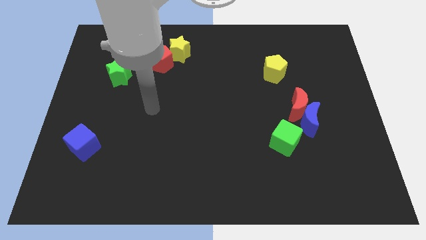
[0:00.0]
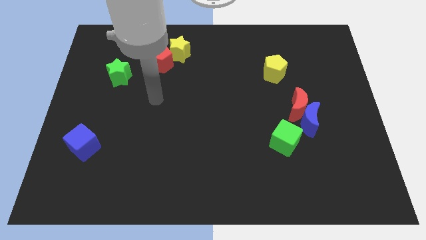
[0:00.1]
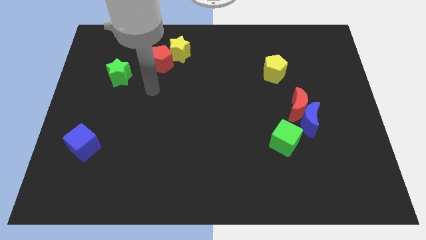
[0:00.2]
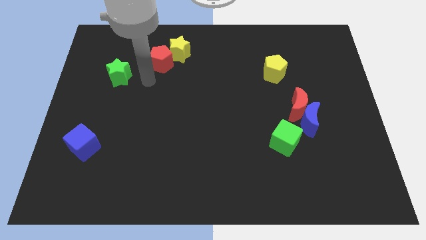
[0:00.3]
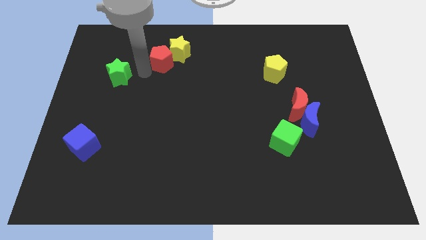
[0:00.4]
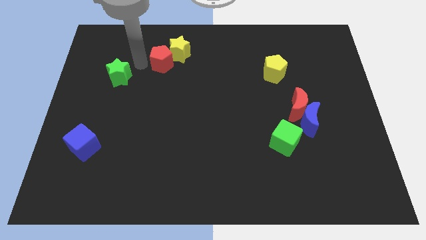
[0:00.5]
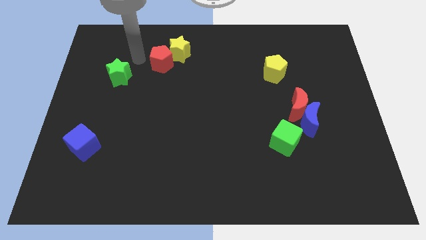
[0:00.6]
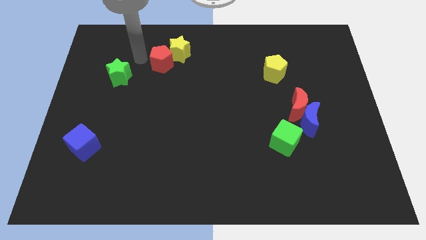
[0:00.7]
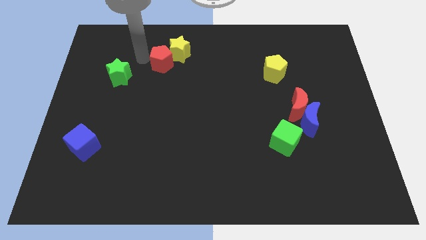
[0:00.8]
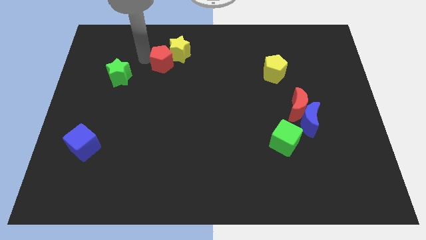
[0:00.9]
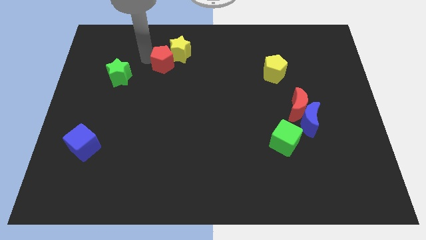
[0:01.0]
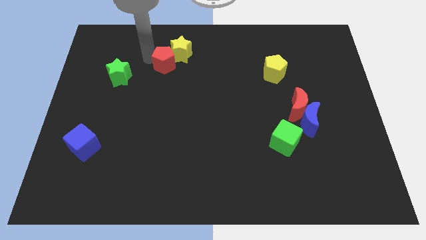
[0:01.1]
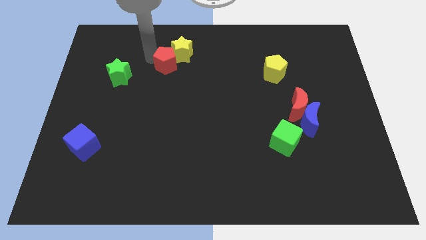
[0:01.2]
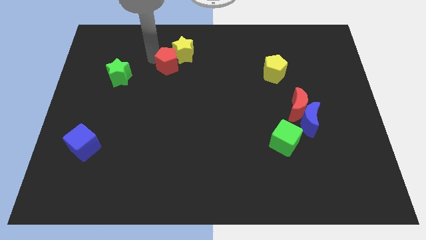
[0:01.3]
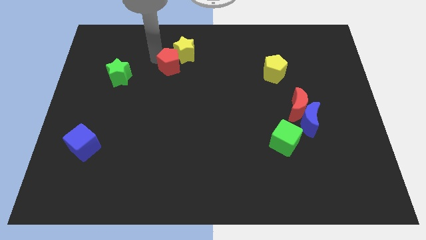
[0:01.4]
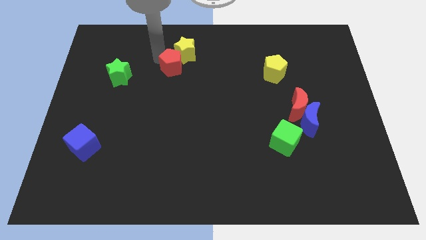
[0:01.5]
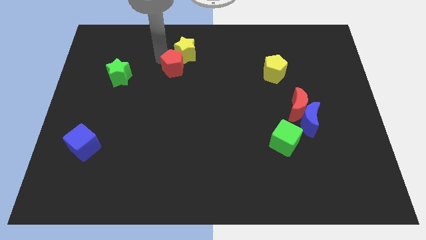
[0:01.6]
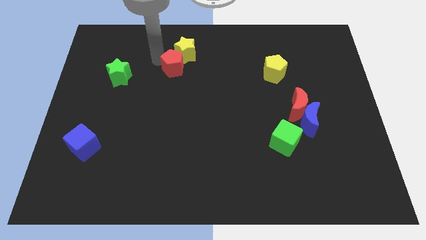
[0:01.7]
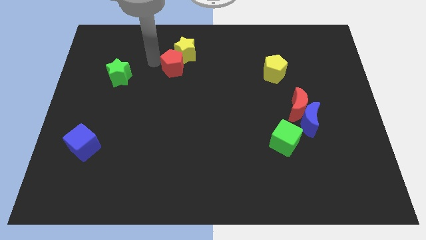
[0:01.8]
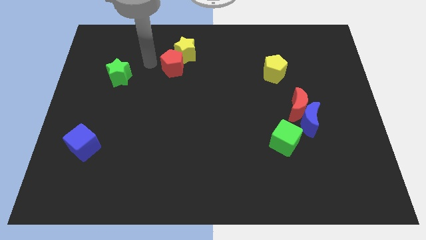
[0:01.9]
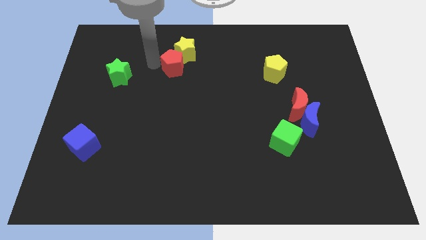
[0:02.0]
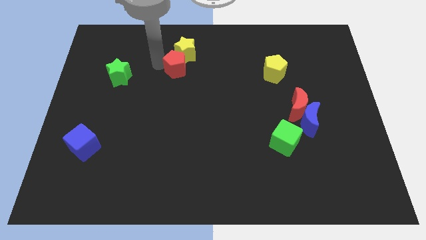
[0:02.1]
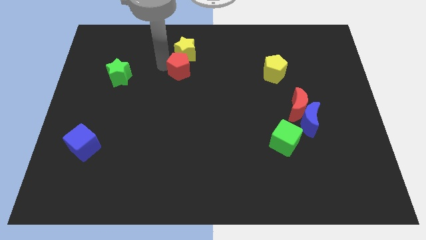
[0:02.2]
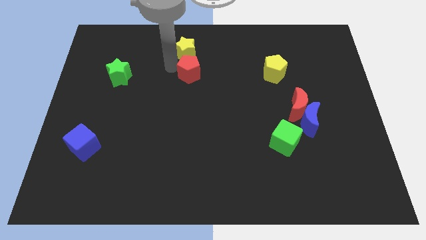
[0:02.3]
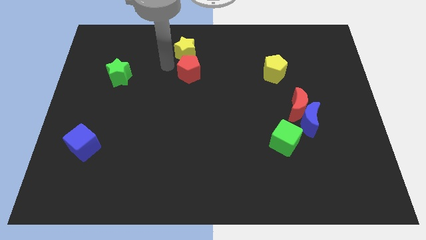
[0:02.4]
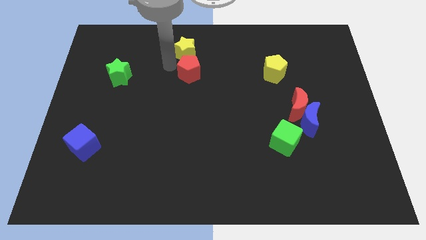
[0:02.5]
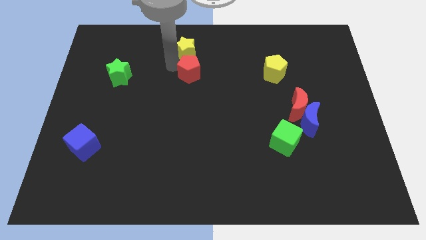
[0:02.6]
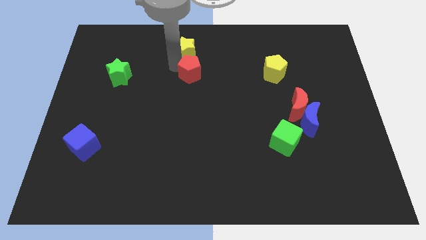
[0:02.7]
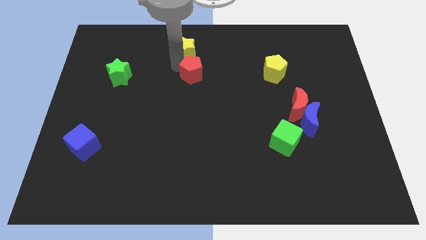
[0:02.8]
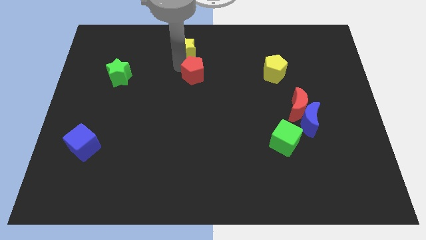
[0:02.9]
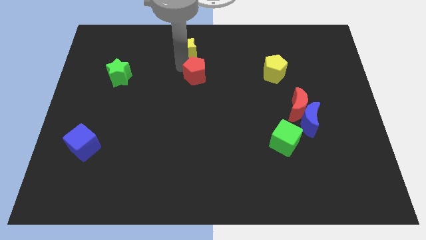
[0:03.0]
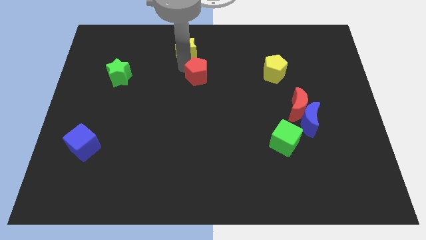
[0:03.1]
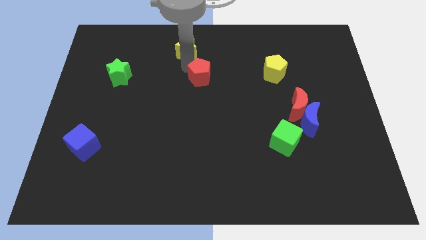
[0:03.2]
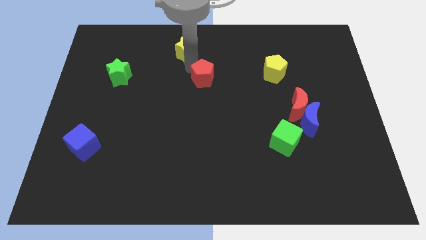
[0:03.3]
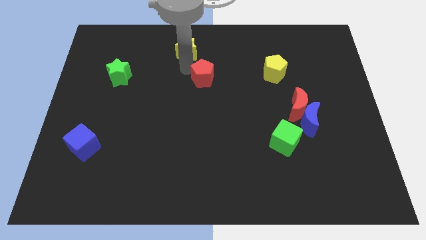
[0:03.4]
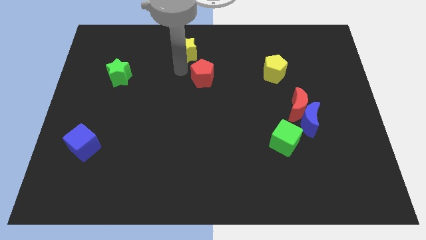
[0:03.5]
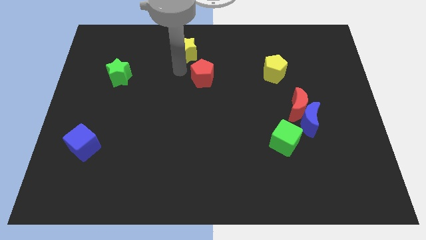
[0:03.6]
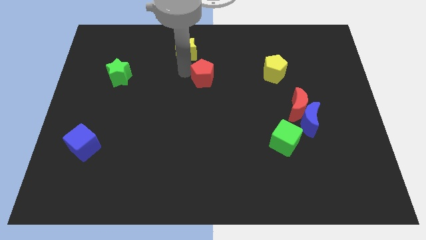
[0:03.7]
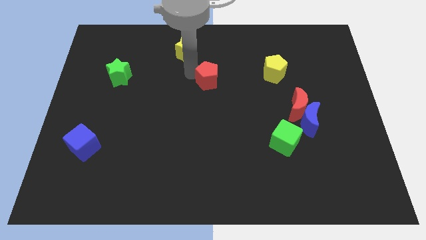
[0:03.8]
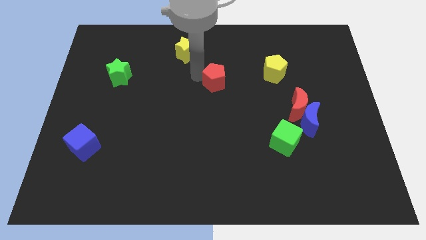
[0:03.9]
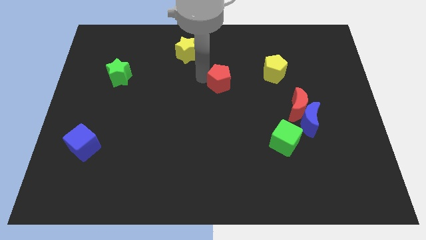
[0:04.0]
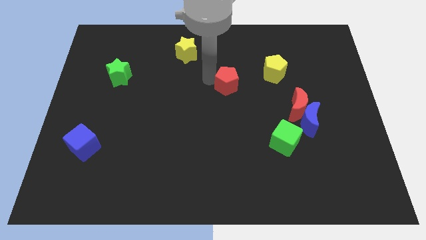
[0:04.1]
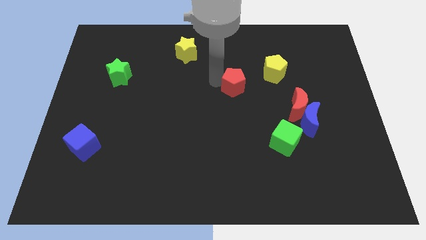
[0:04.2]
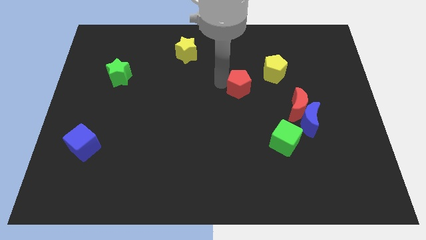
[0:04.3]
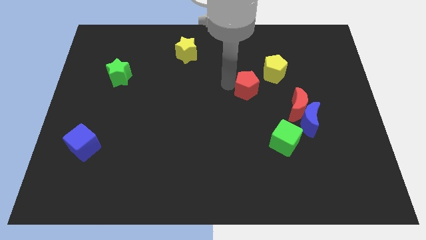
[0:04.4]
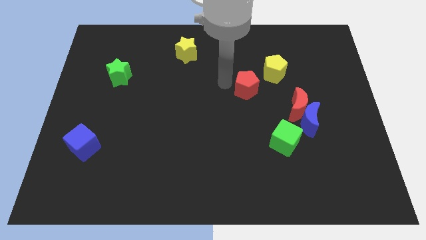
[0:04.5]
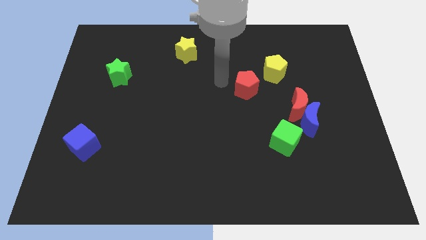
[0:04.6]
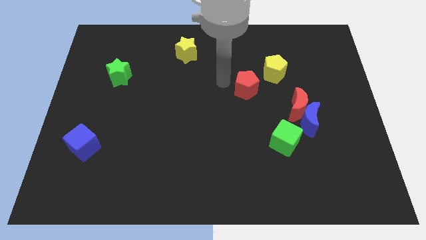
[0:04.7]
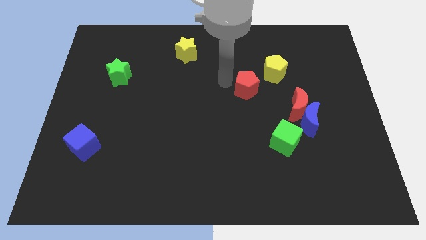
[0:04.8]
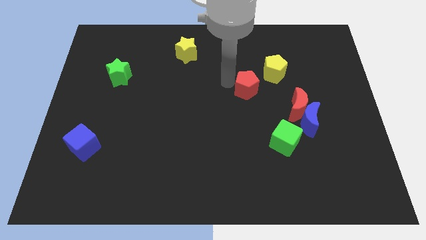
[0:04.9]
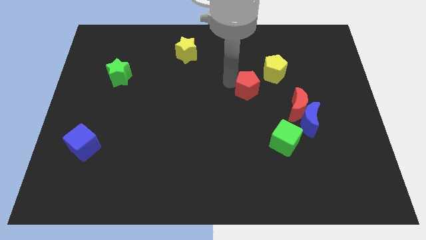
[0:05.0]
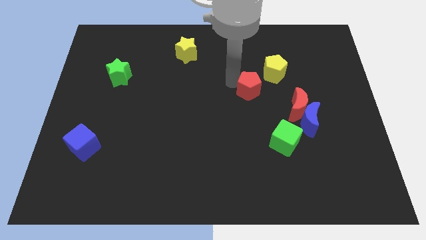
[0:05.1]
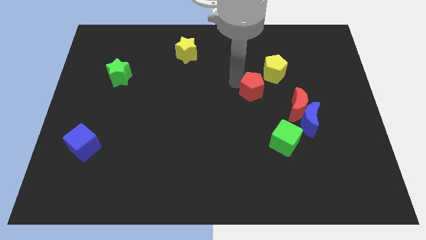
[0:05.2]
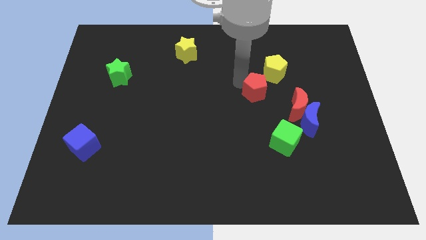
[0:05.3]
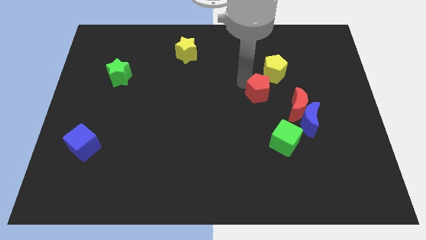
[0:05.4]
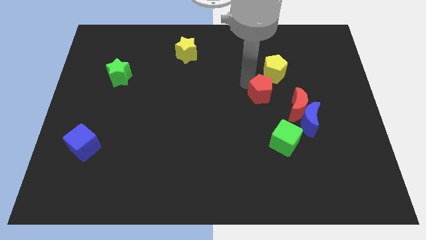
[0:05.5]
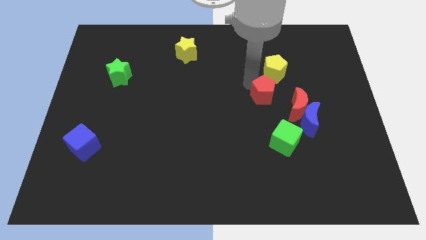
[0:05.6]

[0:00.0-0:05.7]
push the red pentagon to the top left of the blue moon

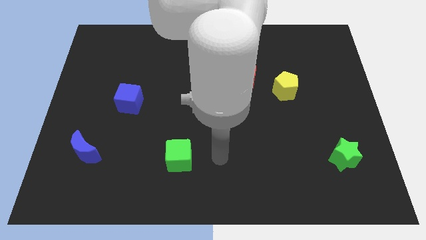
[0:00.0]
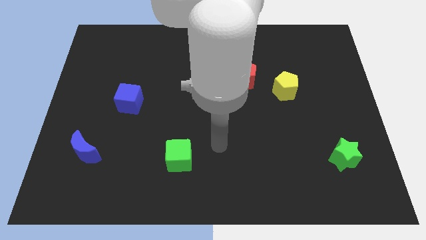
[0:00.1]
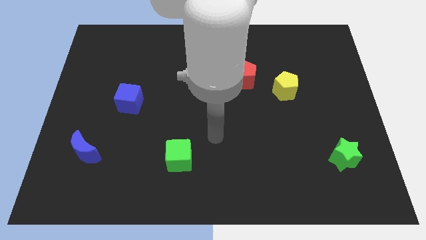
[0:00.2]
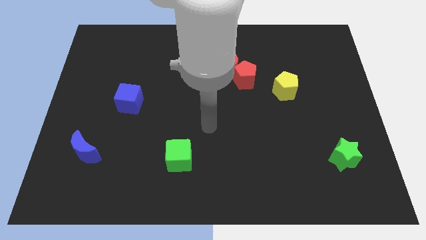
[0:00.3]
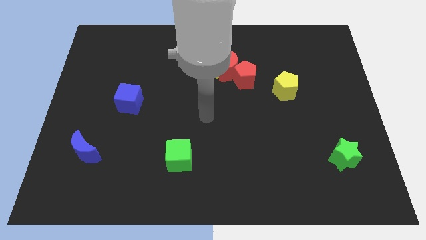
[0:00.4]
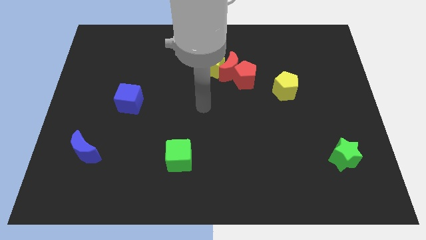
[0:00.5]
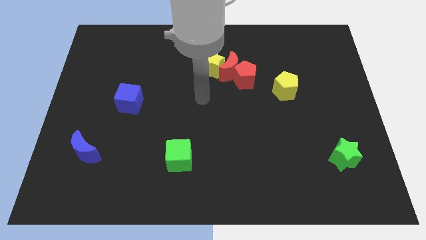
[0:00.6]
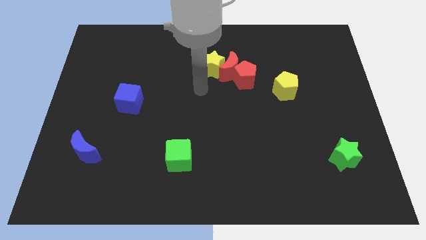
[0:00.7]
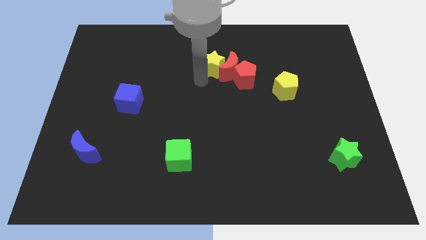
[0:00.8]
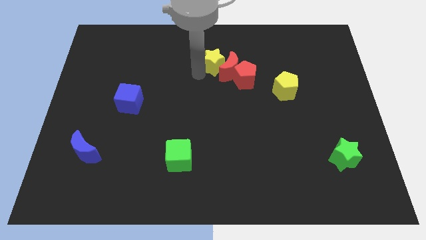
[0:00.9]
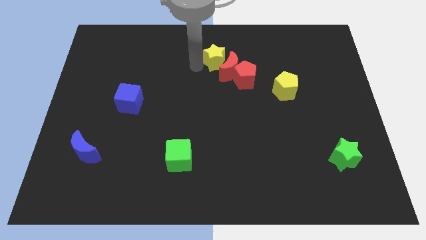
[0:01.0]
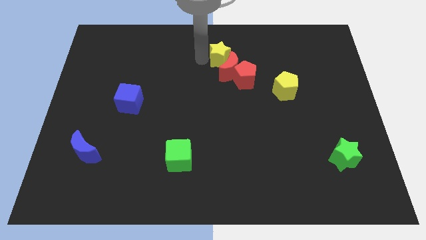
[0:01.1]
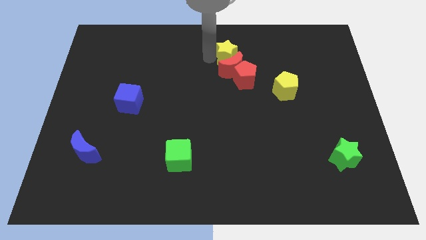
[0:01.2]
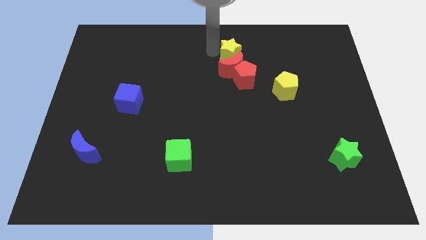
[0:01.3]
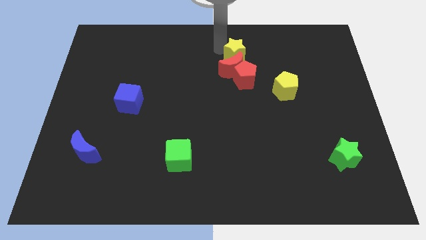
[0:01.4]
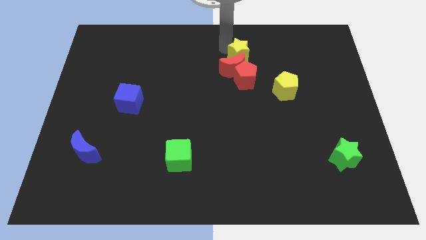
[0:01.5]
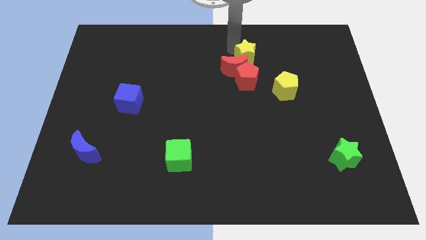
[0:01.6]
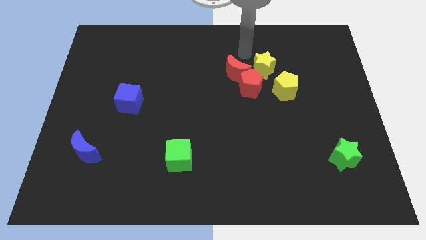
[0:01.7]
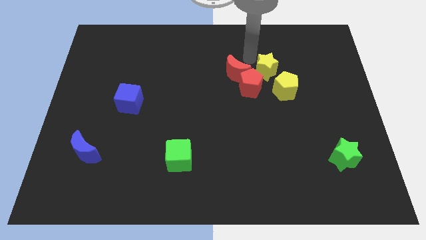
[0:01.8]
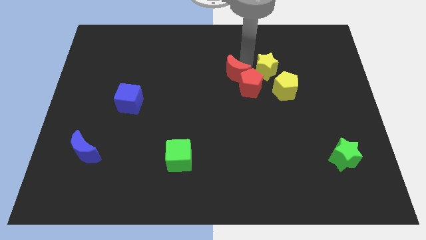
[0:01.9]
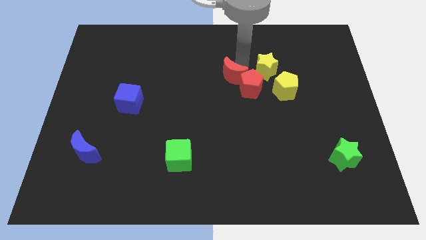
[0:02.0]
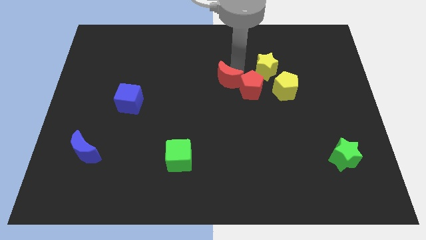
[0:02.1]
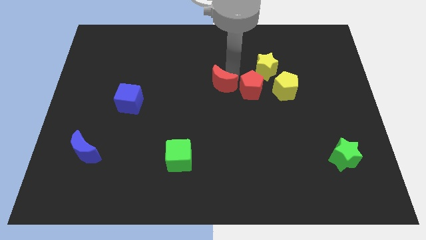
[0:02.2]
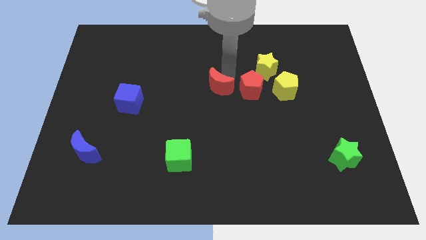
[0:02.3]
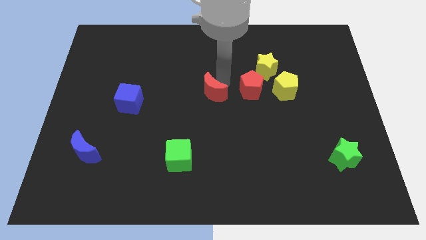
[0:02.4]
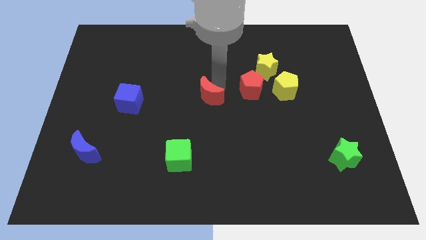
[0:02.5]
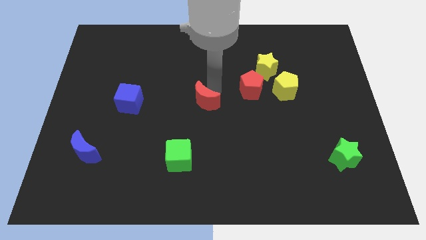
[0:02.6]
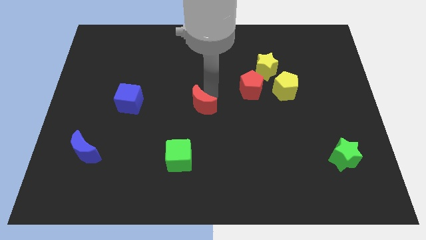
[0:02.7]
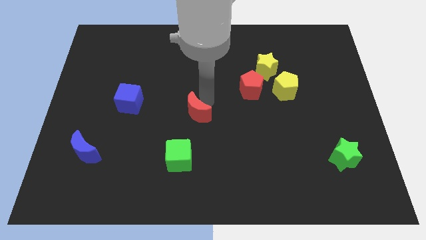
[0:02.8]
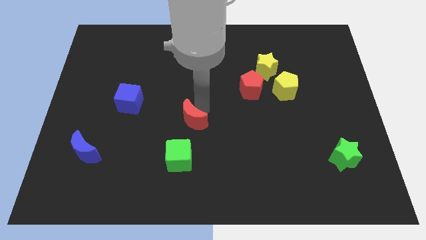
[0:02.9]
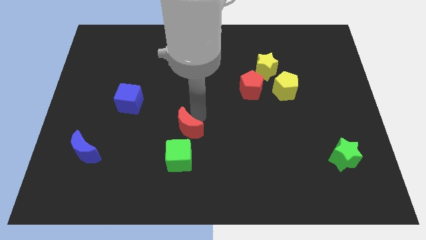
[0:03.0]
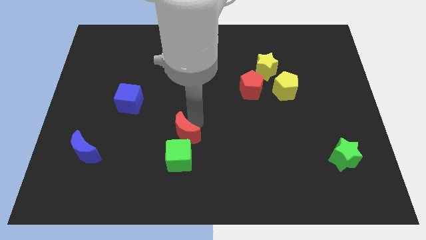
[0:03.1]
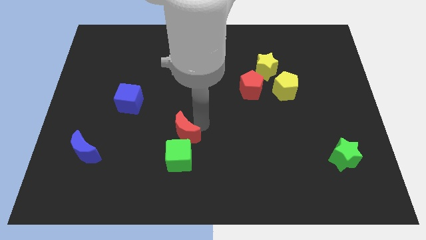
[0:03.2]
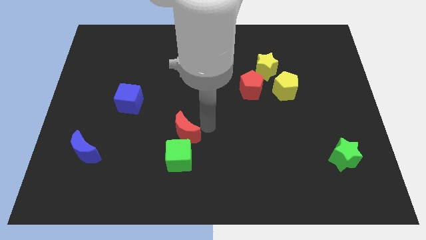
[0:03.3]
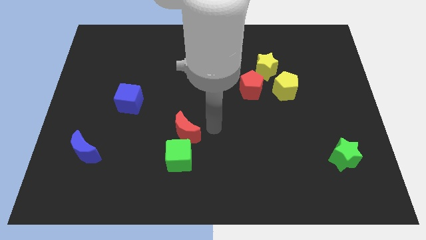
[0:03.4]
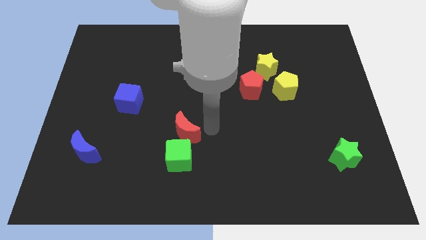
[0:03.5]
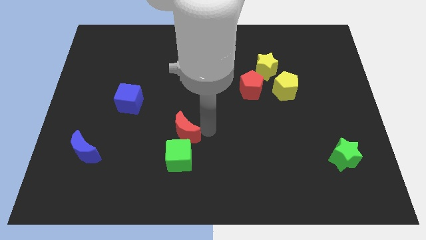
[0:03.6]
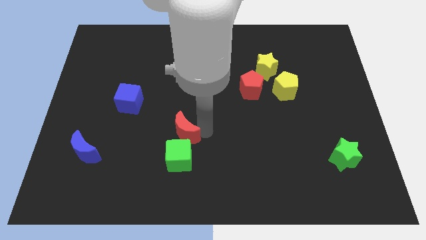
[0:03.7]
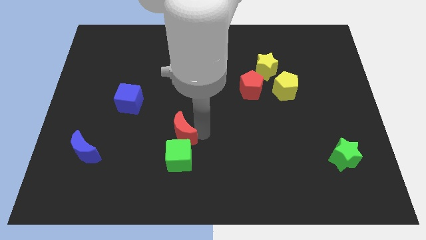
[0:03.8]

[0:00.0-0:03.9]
slide the red moon to the top left of the green cube
